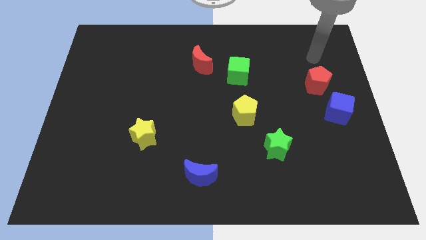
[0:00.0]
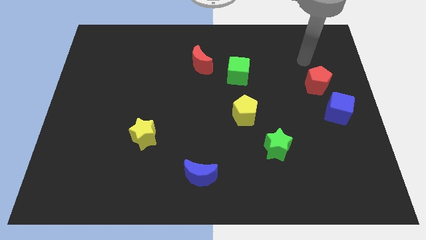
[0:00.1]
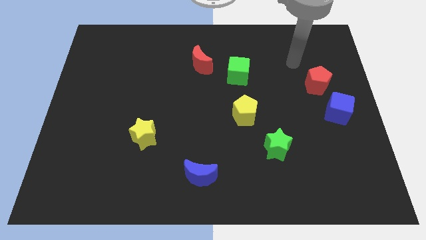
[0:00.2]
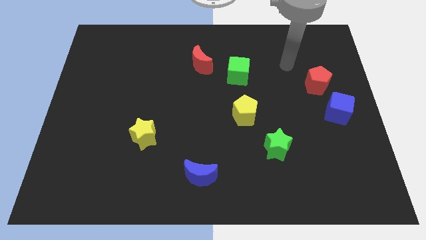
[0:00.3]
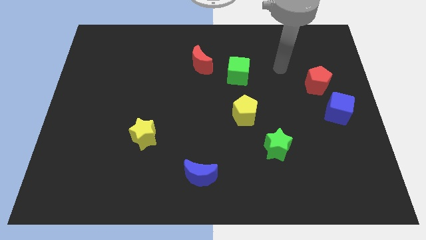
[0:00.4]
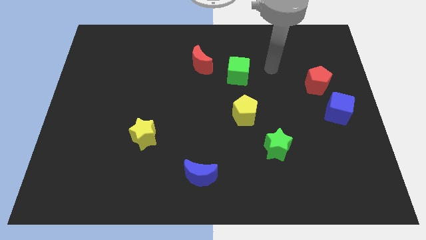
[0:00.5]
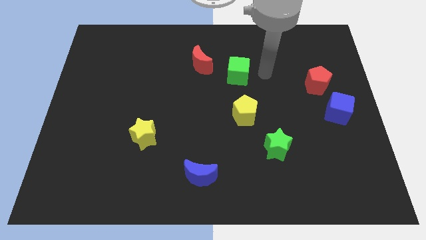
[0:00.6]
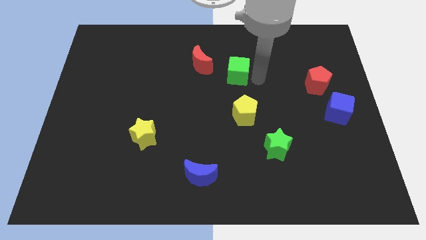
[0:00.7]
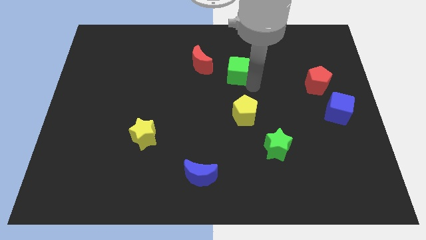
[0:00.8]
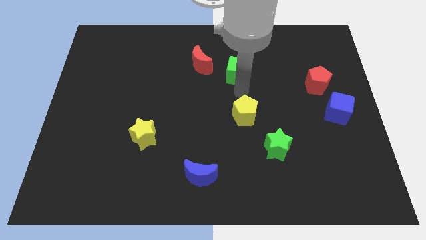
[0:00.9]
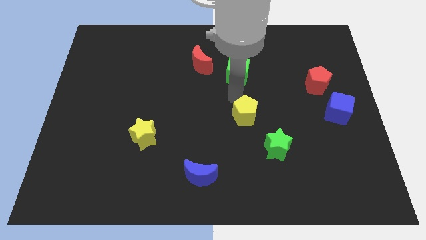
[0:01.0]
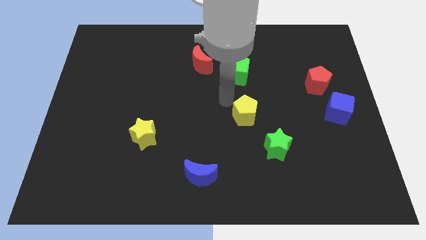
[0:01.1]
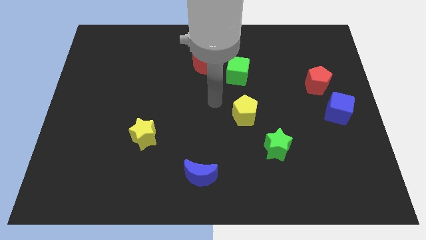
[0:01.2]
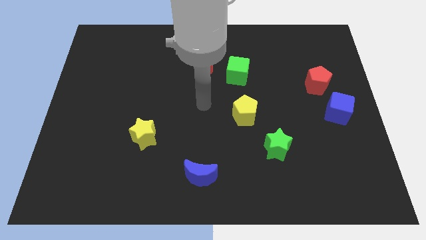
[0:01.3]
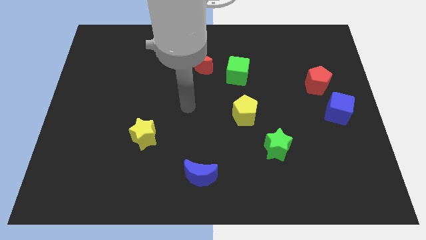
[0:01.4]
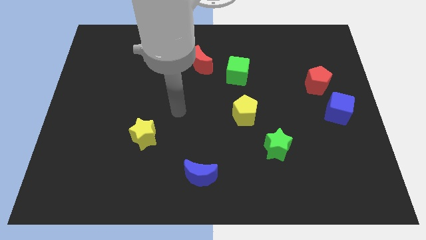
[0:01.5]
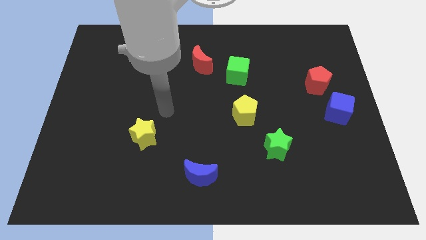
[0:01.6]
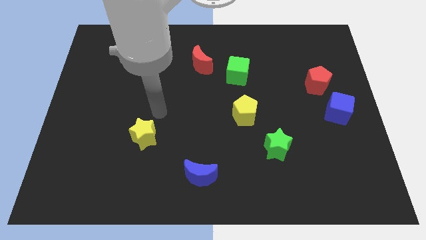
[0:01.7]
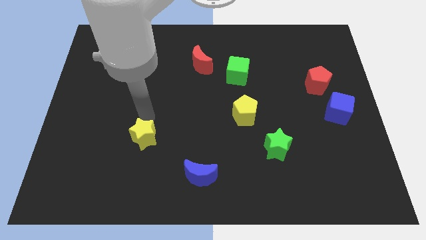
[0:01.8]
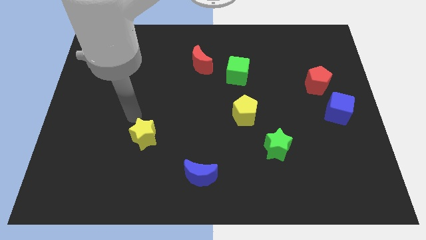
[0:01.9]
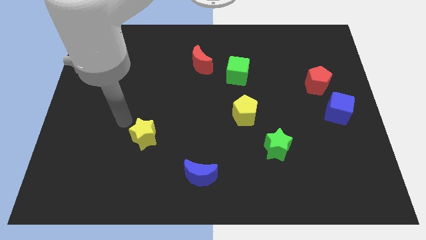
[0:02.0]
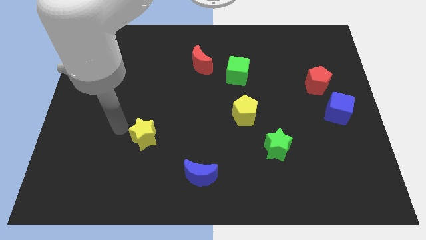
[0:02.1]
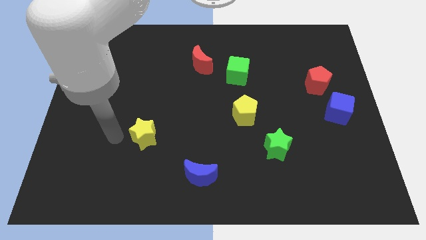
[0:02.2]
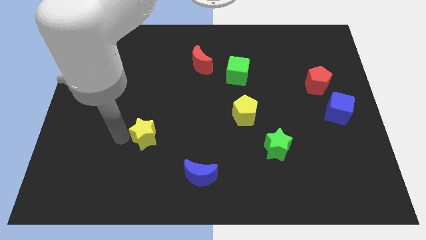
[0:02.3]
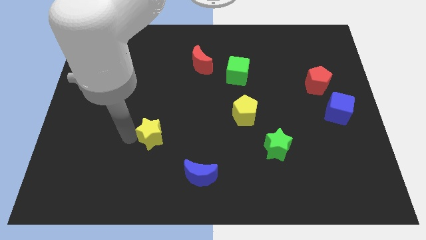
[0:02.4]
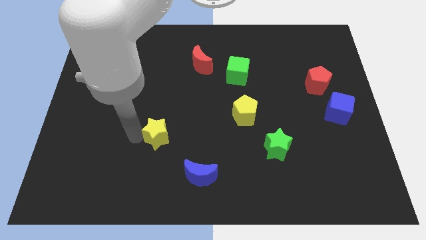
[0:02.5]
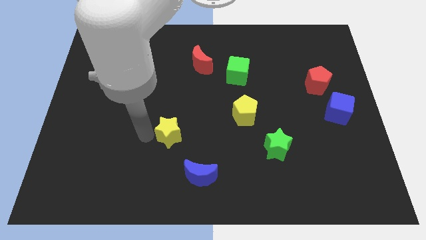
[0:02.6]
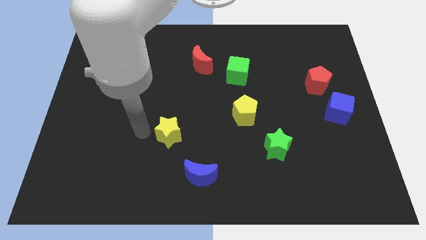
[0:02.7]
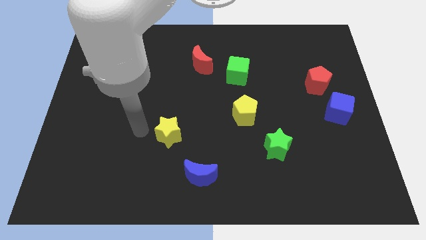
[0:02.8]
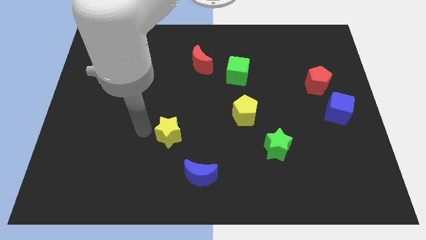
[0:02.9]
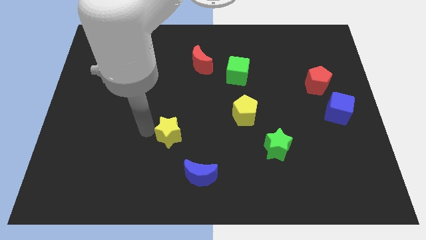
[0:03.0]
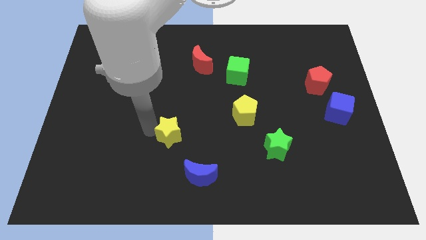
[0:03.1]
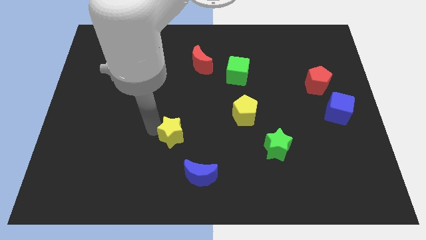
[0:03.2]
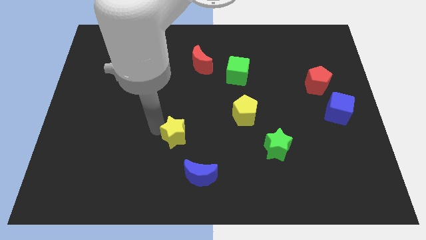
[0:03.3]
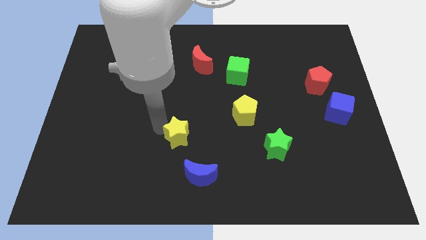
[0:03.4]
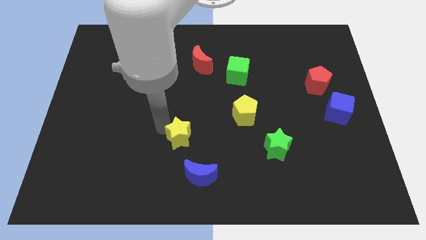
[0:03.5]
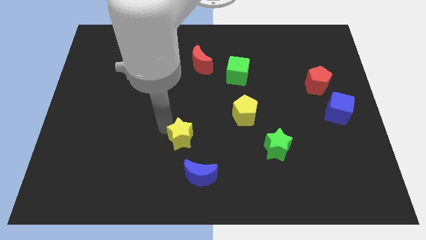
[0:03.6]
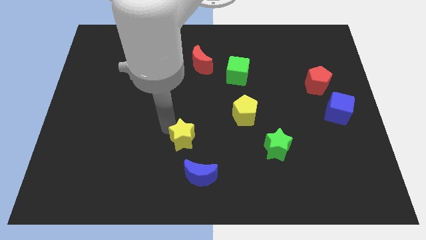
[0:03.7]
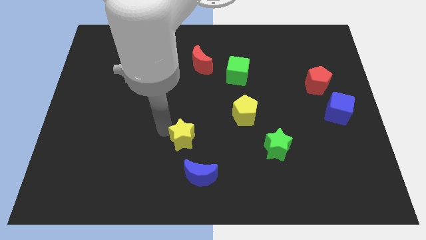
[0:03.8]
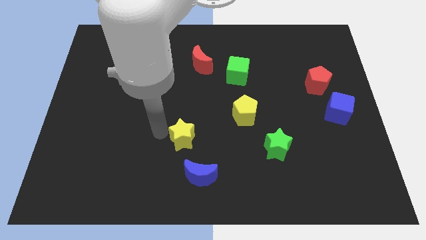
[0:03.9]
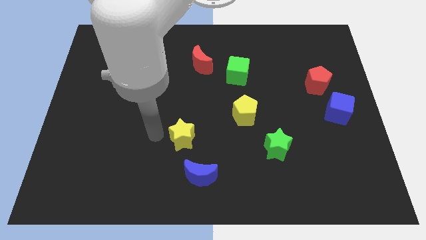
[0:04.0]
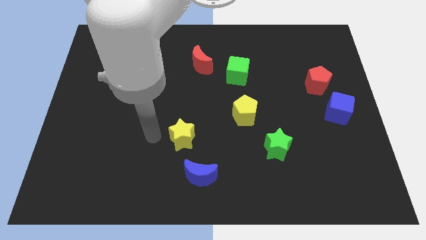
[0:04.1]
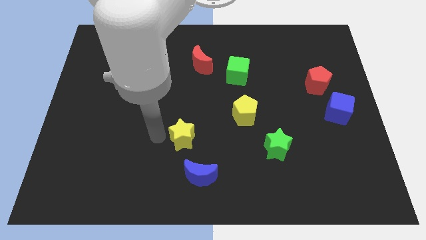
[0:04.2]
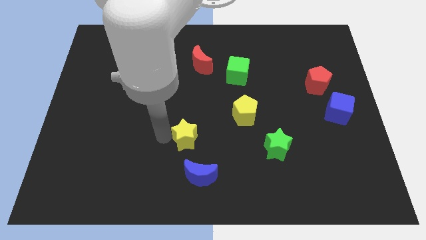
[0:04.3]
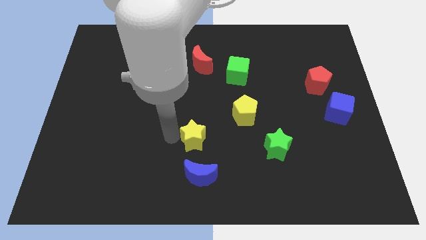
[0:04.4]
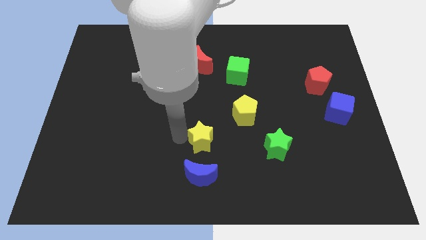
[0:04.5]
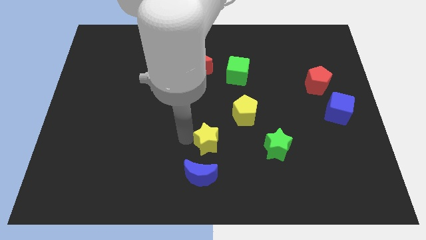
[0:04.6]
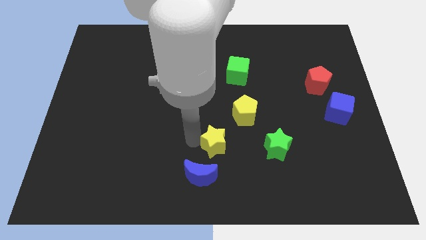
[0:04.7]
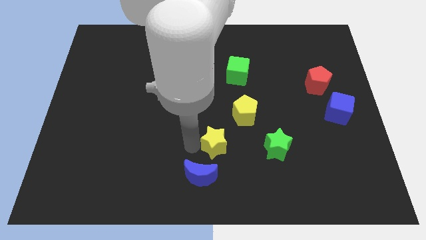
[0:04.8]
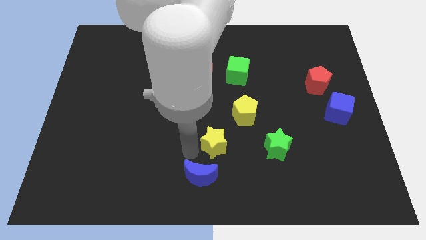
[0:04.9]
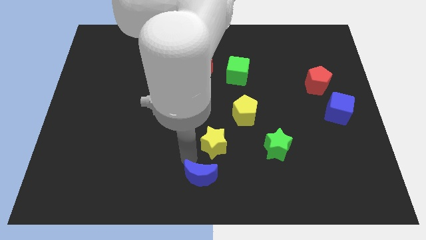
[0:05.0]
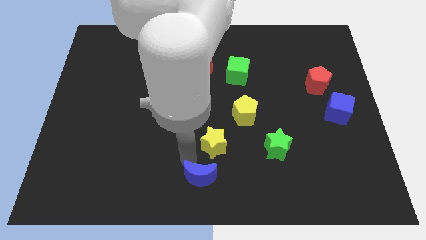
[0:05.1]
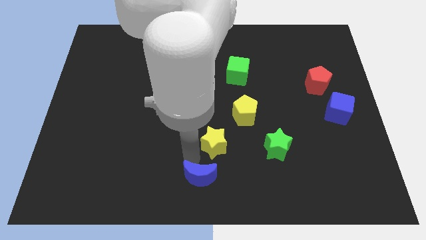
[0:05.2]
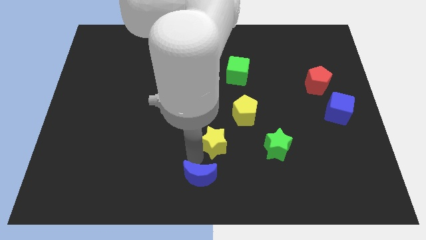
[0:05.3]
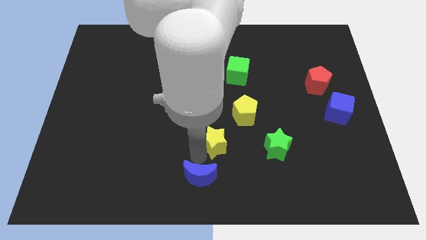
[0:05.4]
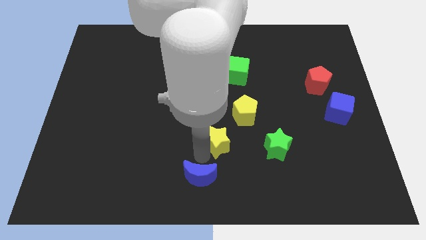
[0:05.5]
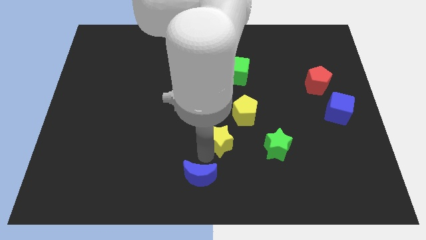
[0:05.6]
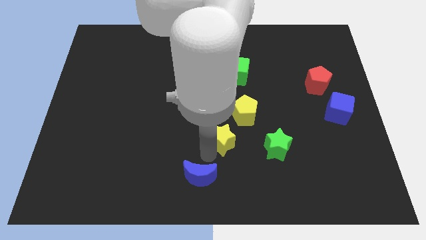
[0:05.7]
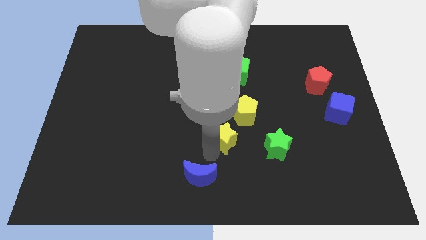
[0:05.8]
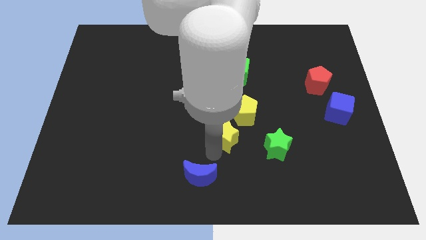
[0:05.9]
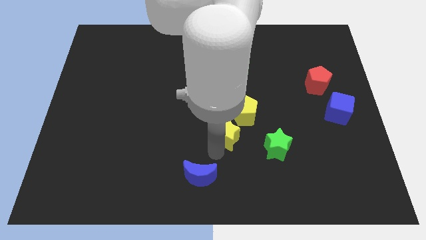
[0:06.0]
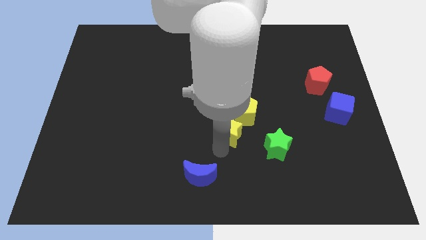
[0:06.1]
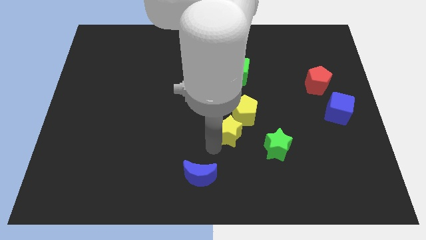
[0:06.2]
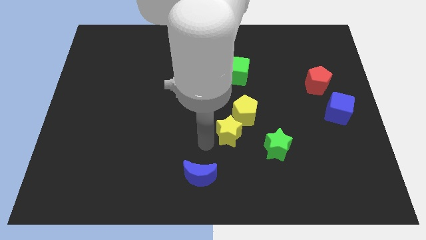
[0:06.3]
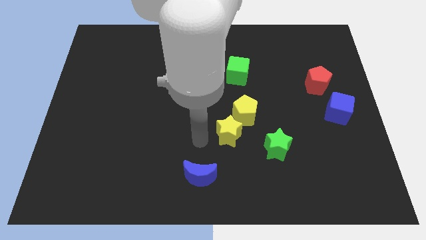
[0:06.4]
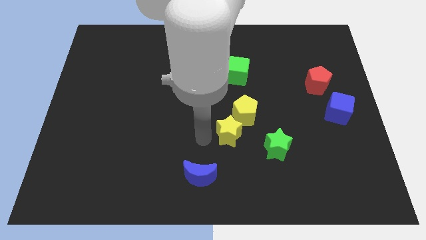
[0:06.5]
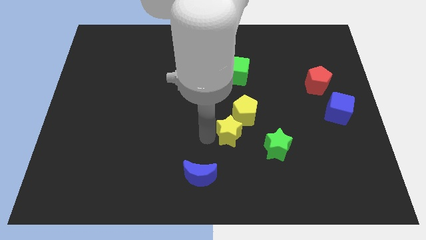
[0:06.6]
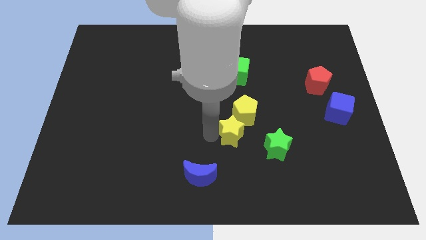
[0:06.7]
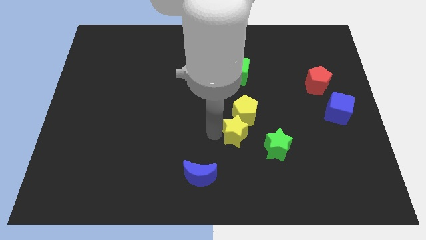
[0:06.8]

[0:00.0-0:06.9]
slide the yellow star to the right

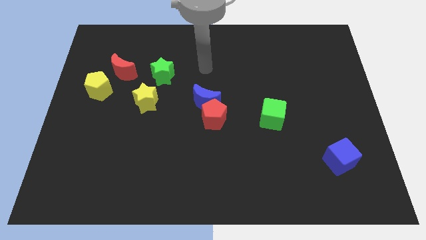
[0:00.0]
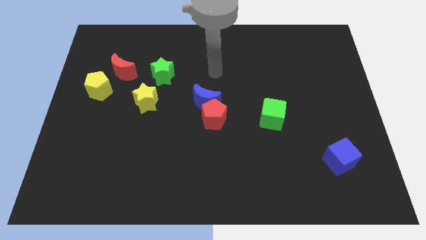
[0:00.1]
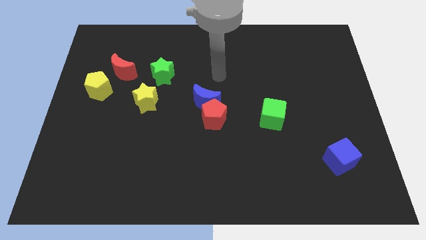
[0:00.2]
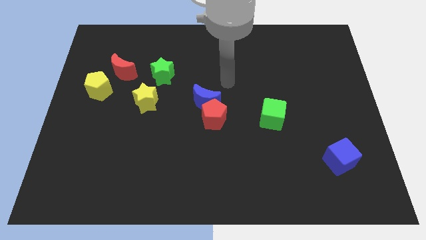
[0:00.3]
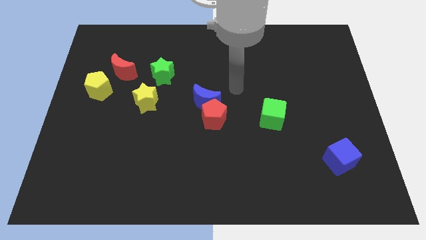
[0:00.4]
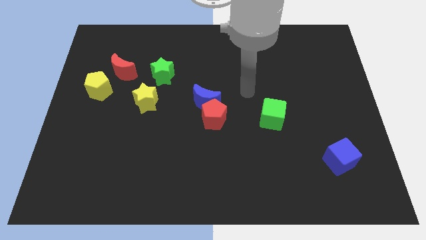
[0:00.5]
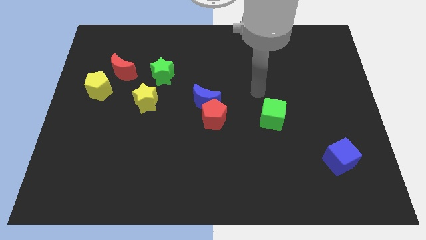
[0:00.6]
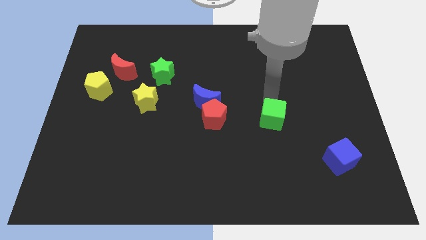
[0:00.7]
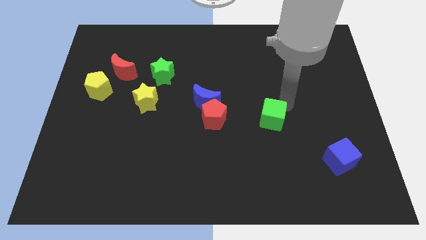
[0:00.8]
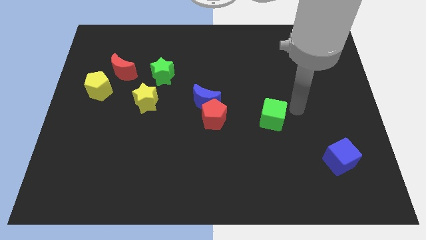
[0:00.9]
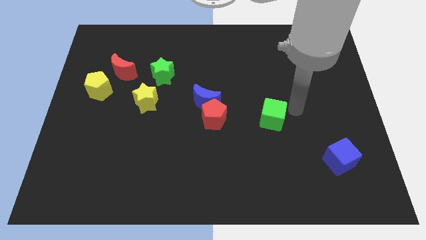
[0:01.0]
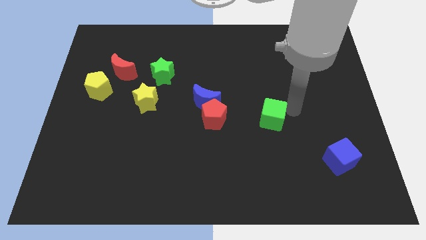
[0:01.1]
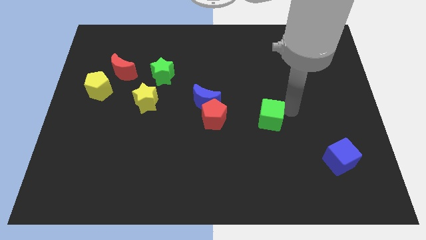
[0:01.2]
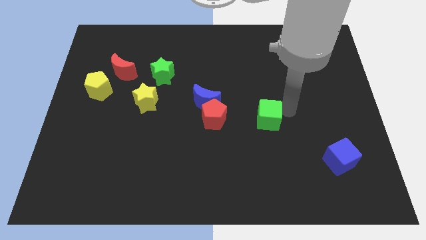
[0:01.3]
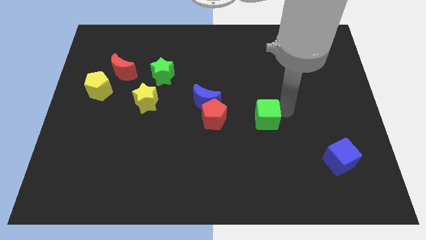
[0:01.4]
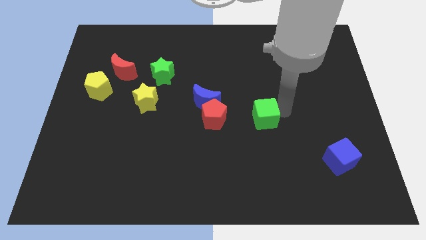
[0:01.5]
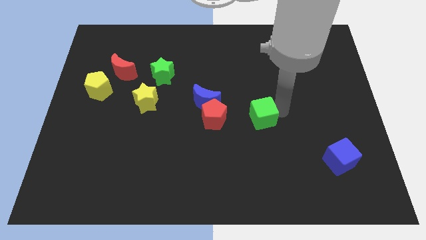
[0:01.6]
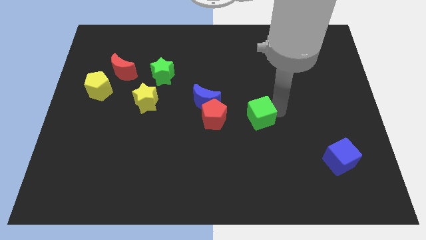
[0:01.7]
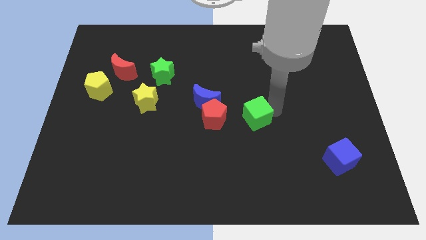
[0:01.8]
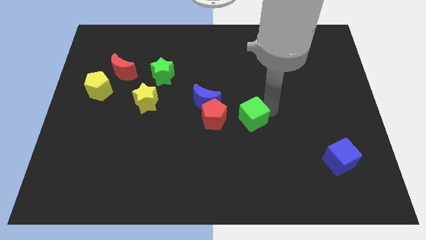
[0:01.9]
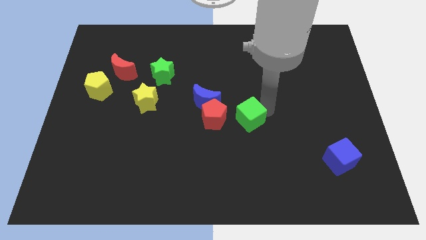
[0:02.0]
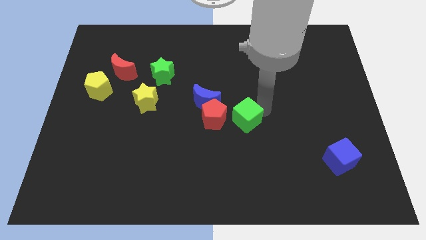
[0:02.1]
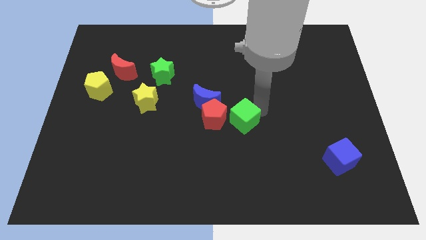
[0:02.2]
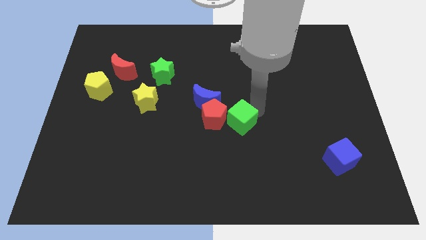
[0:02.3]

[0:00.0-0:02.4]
push the green cube left a little
